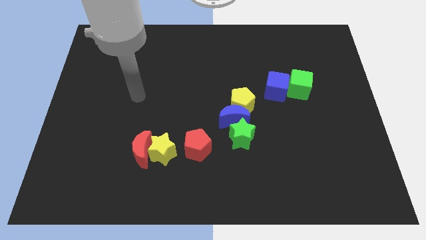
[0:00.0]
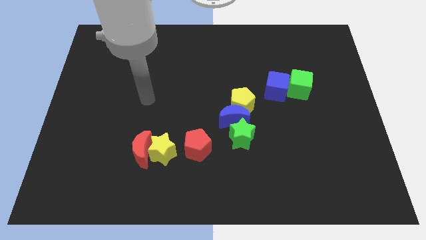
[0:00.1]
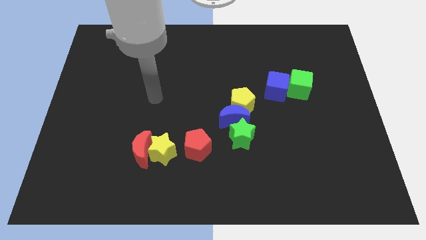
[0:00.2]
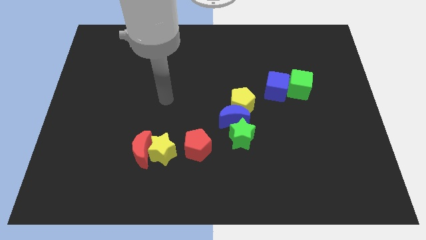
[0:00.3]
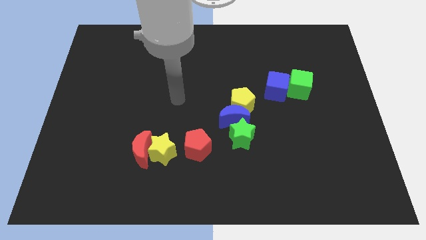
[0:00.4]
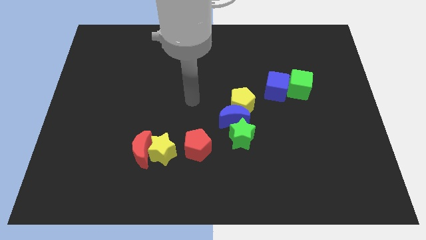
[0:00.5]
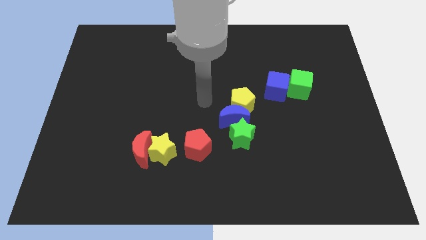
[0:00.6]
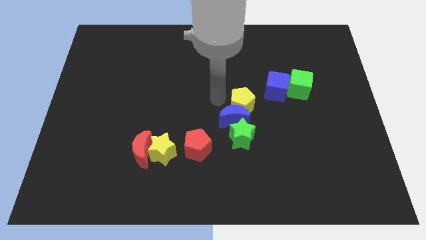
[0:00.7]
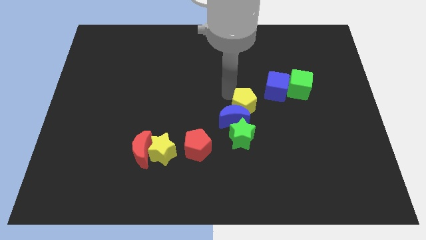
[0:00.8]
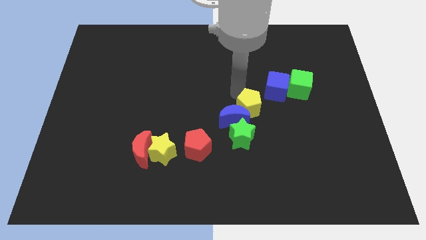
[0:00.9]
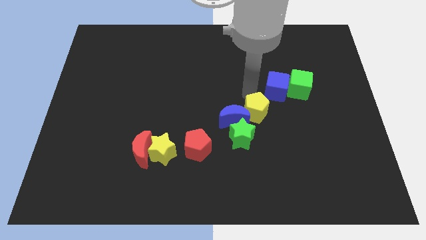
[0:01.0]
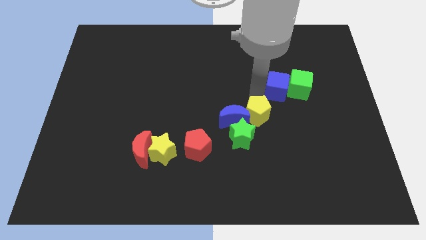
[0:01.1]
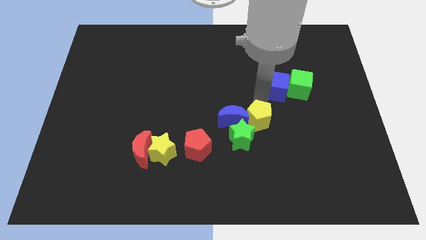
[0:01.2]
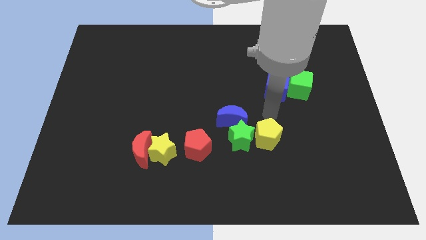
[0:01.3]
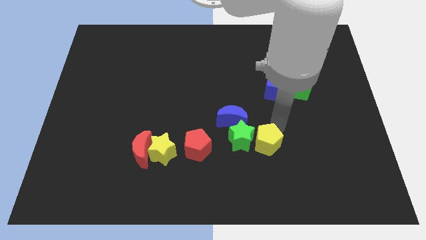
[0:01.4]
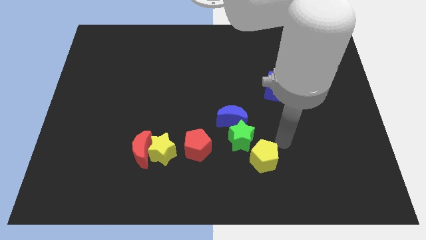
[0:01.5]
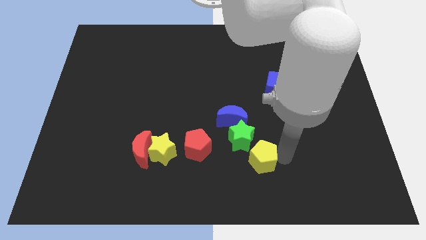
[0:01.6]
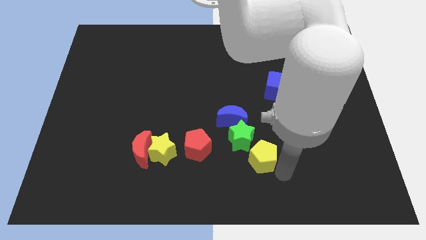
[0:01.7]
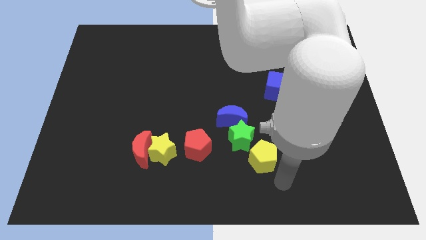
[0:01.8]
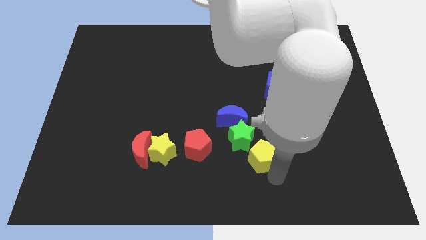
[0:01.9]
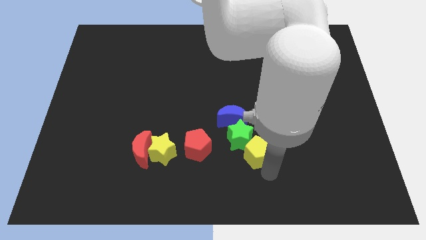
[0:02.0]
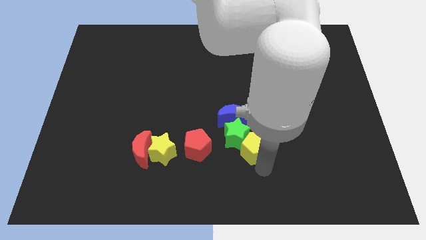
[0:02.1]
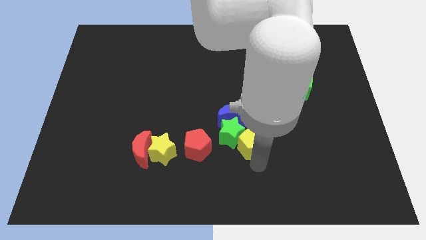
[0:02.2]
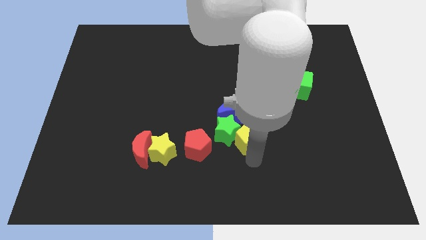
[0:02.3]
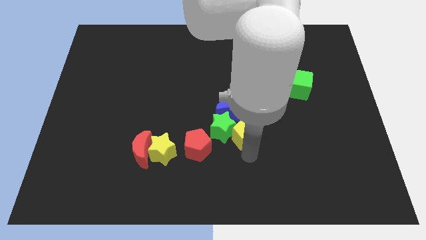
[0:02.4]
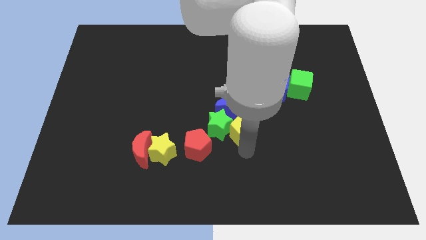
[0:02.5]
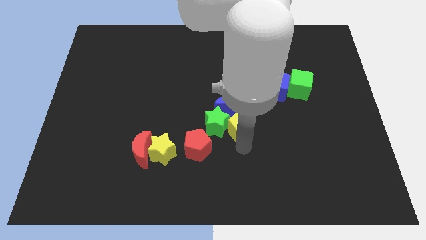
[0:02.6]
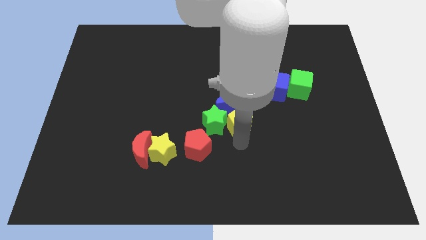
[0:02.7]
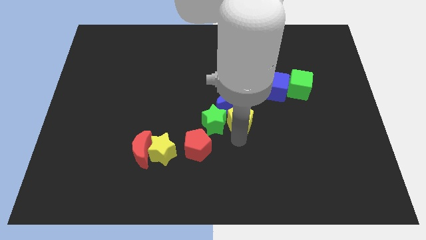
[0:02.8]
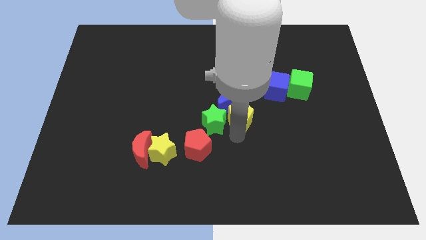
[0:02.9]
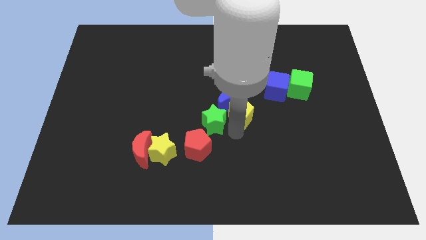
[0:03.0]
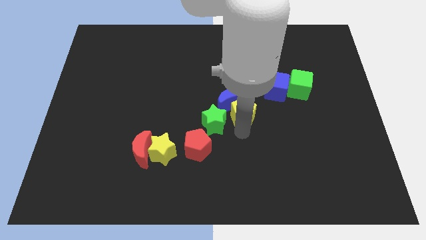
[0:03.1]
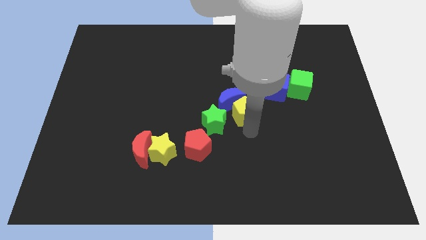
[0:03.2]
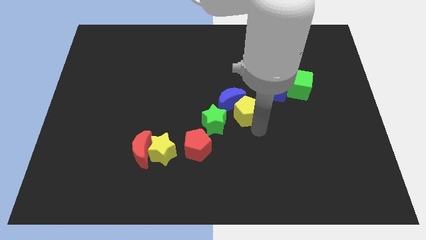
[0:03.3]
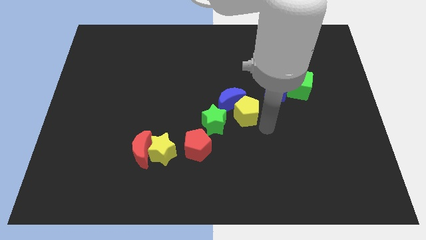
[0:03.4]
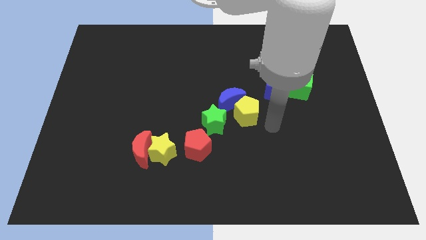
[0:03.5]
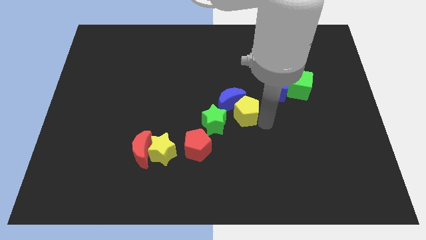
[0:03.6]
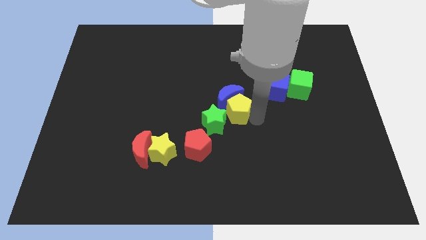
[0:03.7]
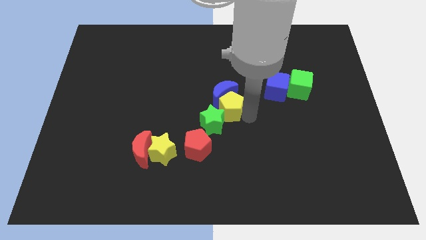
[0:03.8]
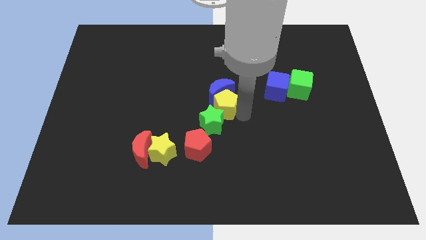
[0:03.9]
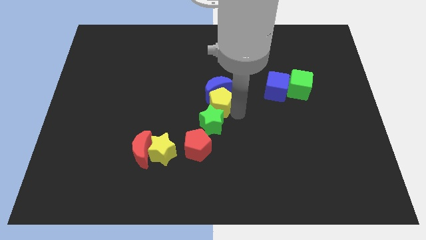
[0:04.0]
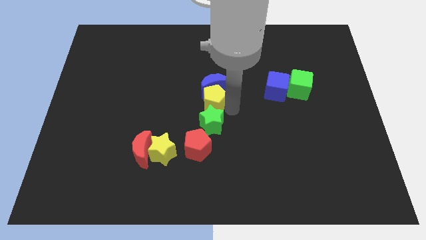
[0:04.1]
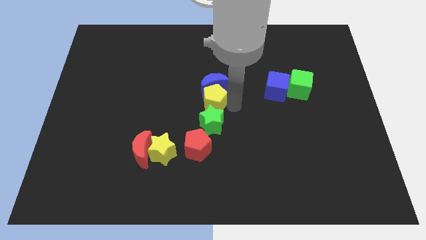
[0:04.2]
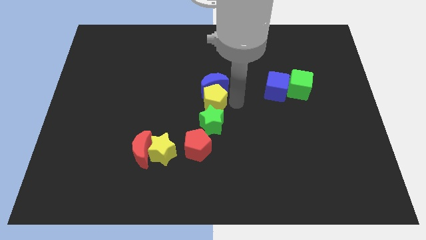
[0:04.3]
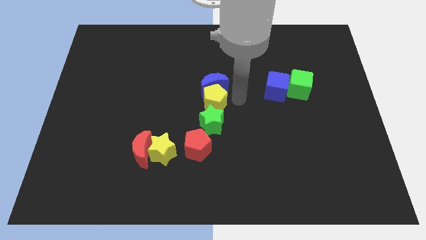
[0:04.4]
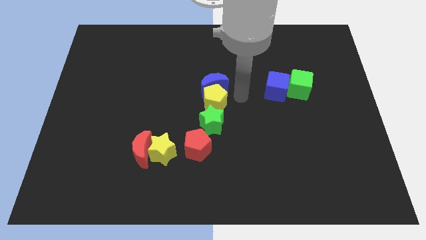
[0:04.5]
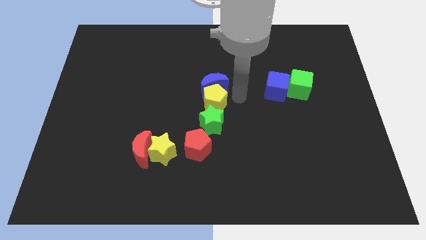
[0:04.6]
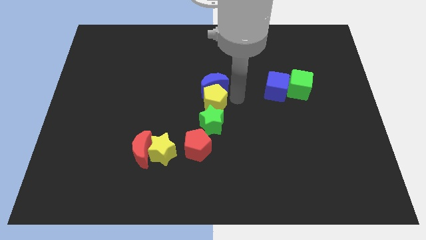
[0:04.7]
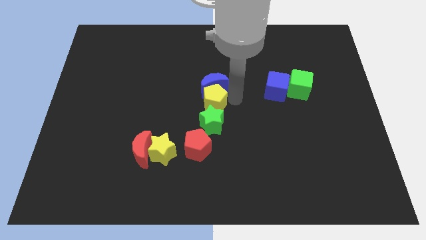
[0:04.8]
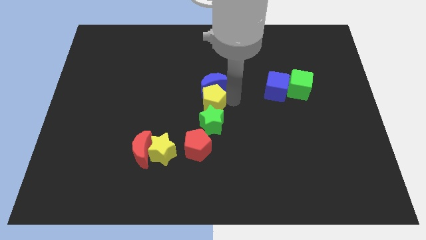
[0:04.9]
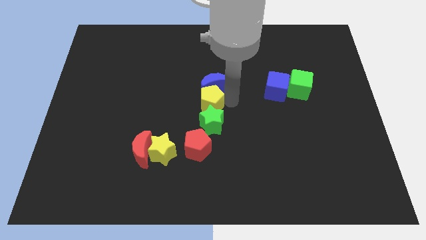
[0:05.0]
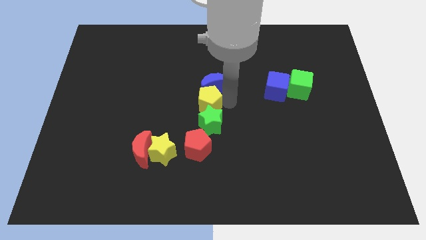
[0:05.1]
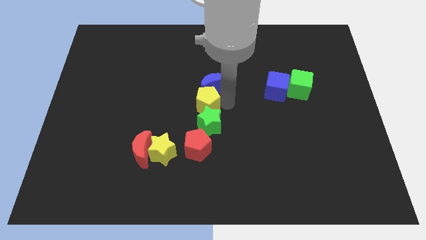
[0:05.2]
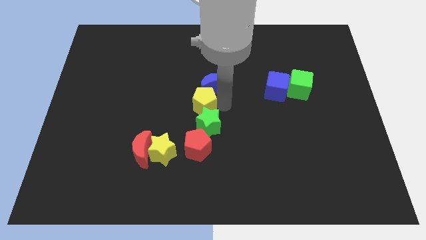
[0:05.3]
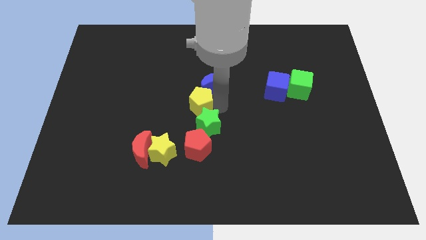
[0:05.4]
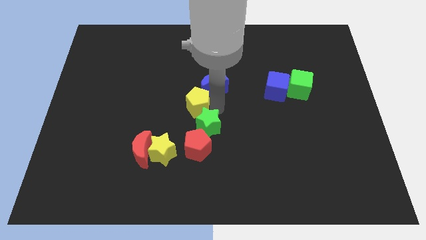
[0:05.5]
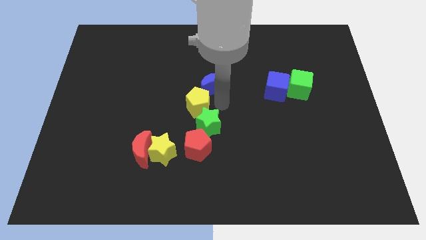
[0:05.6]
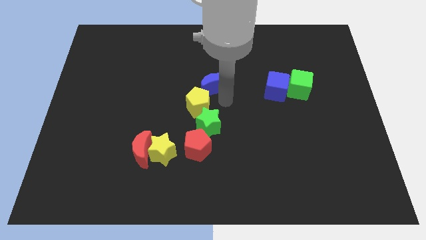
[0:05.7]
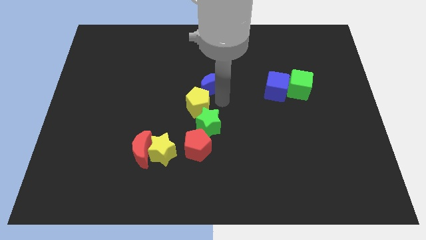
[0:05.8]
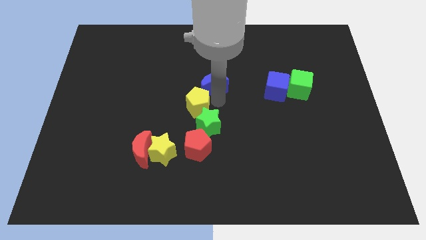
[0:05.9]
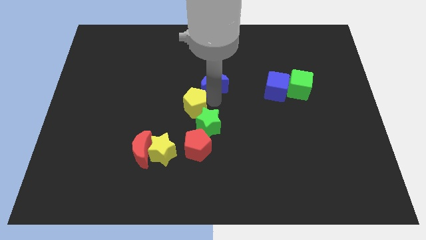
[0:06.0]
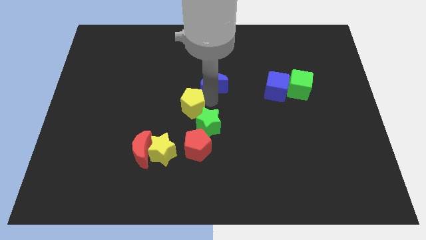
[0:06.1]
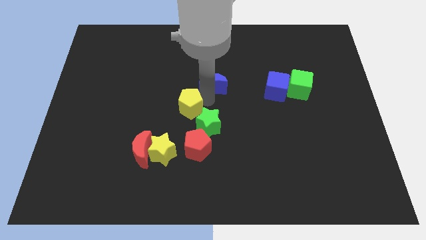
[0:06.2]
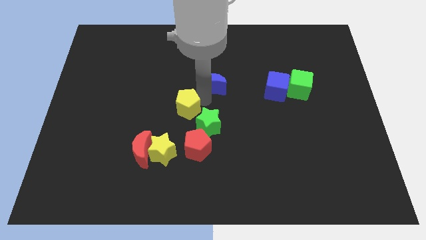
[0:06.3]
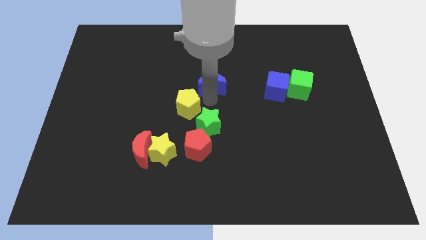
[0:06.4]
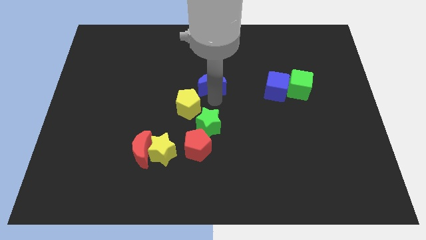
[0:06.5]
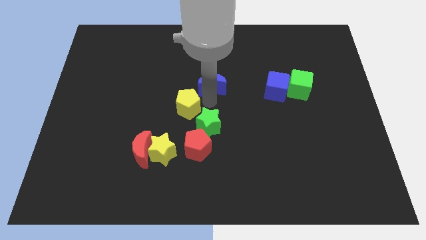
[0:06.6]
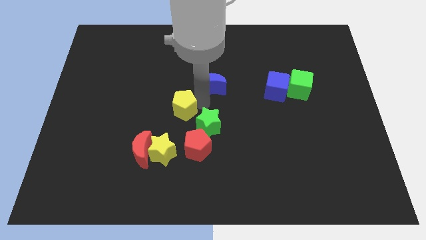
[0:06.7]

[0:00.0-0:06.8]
push the yellow pentagon to the top of the yellow star

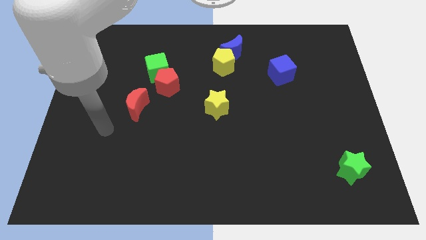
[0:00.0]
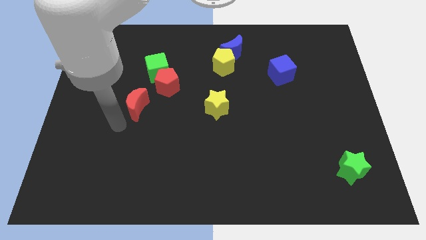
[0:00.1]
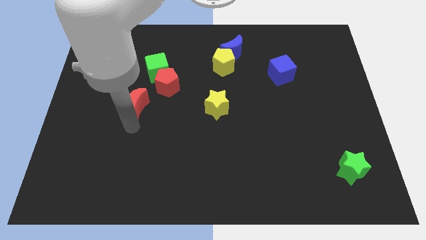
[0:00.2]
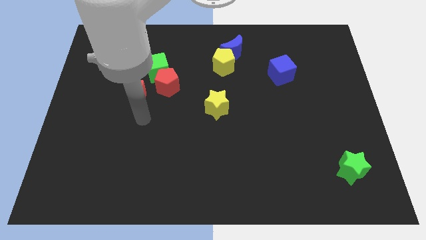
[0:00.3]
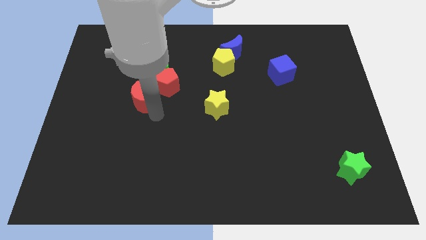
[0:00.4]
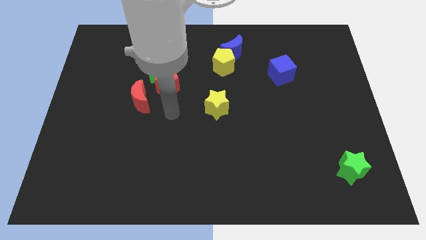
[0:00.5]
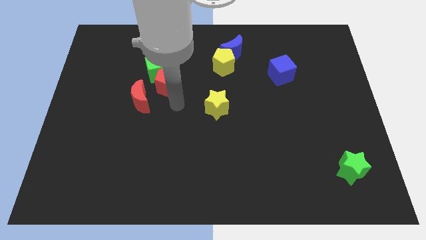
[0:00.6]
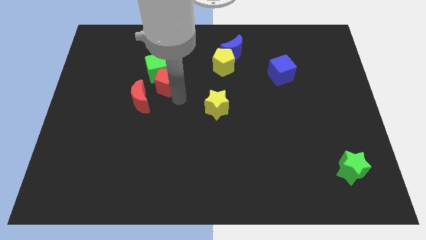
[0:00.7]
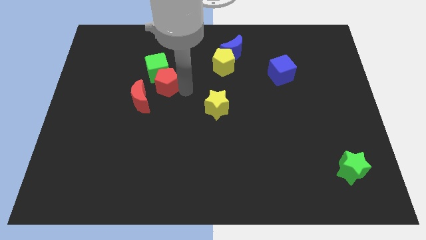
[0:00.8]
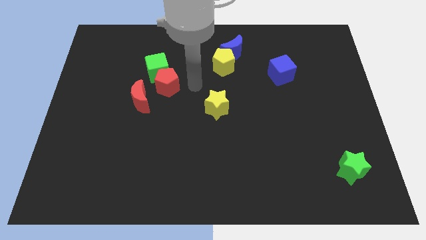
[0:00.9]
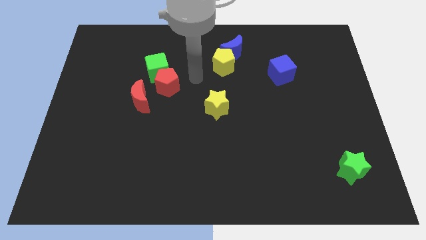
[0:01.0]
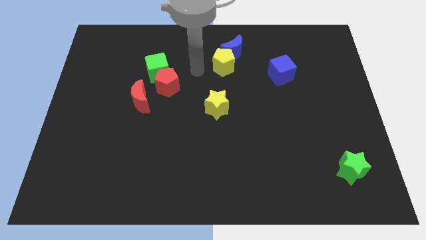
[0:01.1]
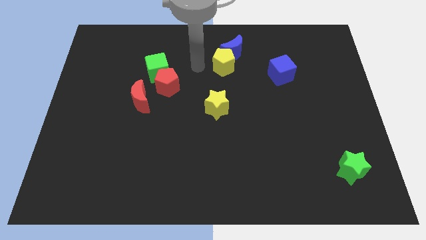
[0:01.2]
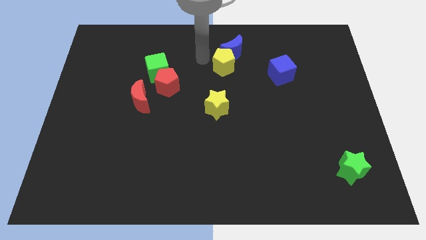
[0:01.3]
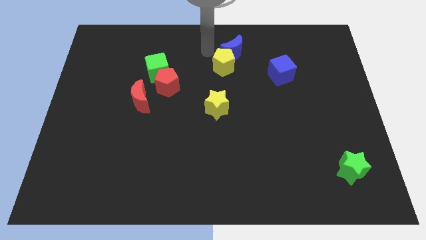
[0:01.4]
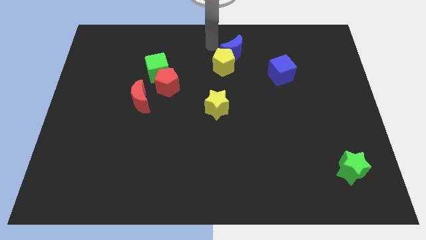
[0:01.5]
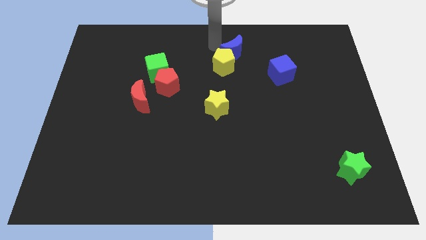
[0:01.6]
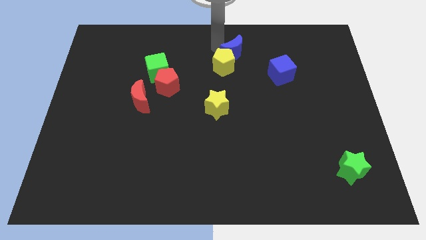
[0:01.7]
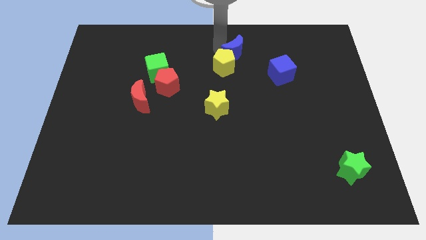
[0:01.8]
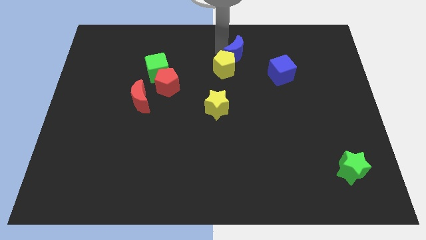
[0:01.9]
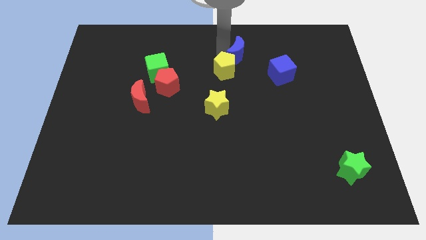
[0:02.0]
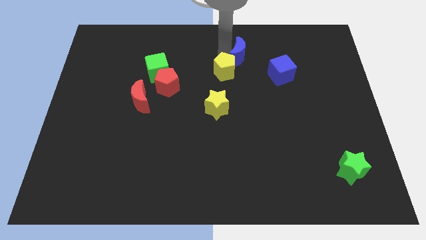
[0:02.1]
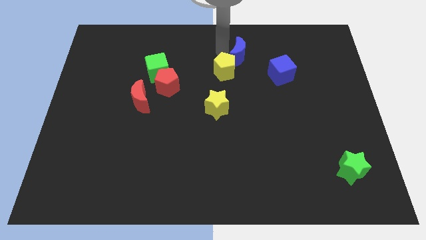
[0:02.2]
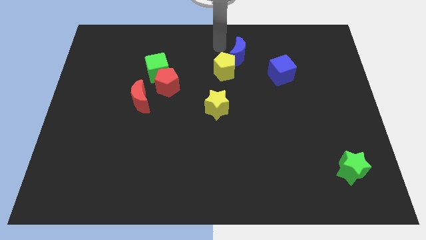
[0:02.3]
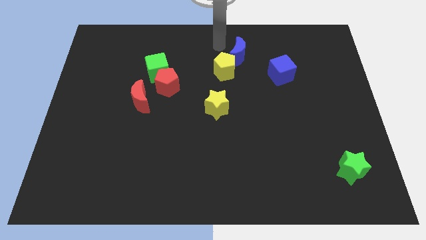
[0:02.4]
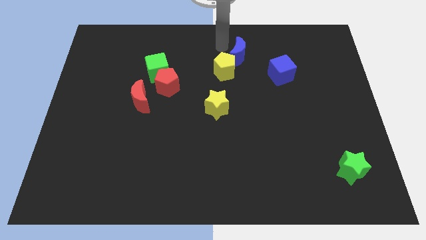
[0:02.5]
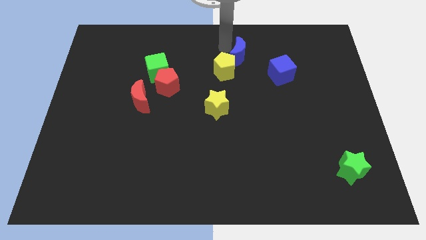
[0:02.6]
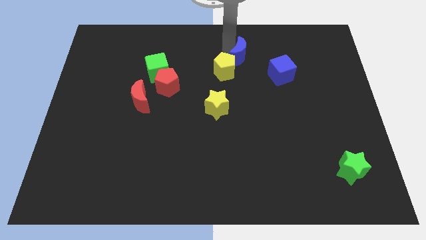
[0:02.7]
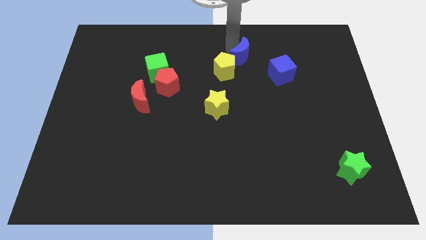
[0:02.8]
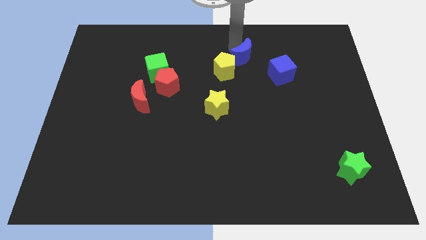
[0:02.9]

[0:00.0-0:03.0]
put the blue moon right of the yellow pentagon
